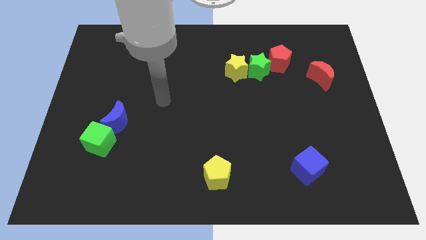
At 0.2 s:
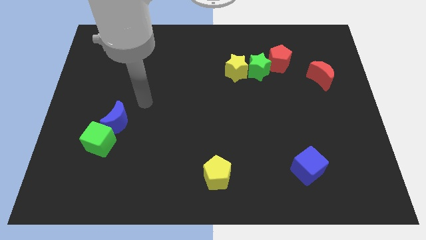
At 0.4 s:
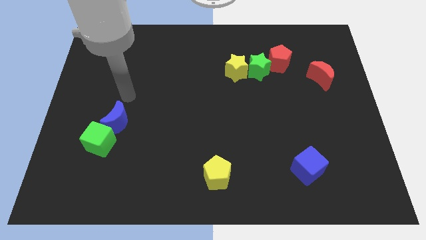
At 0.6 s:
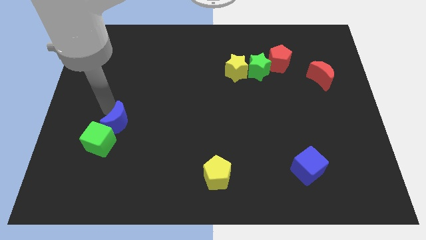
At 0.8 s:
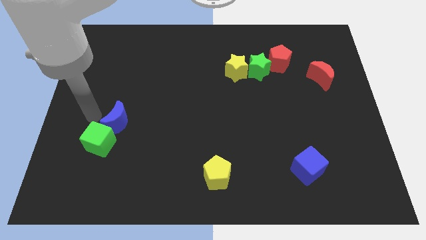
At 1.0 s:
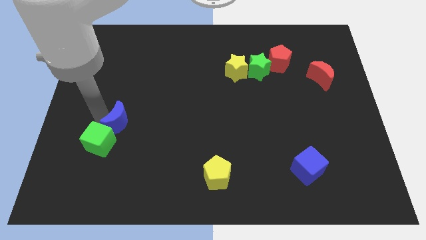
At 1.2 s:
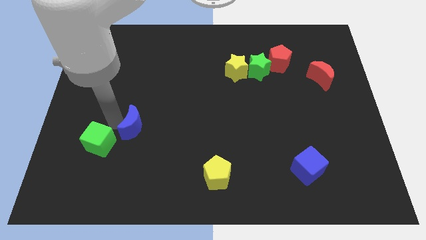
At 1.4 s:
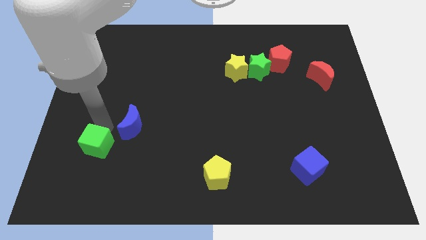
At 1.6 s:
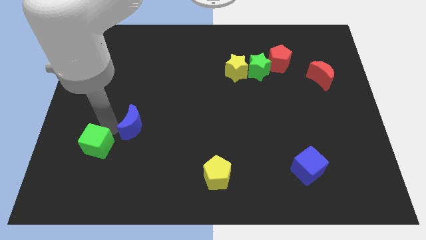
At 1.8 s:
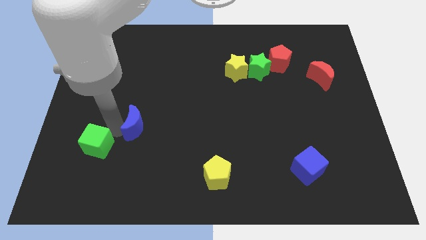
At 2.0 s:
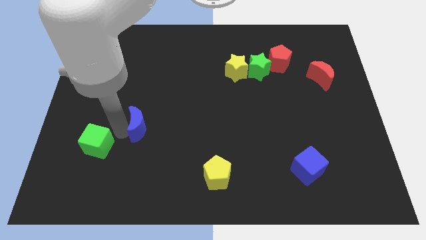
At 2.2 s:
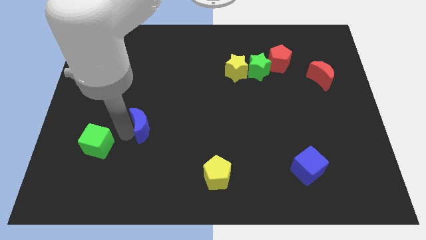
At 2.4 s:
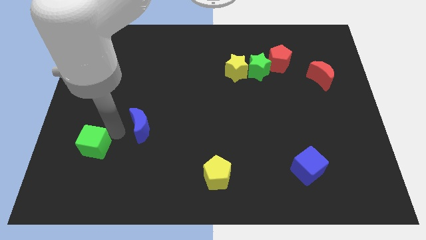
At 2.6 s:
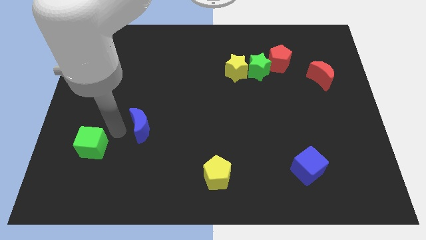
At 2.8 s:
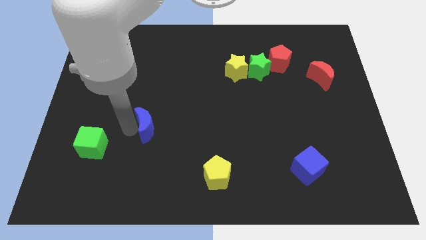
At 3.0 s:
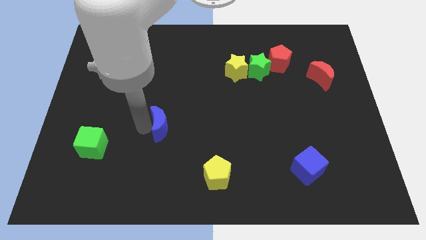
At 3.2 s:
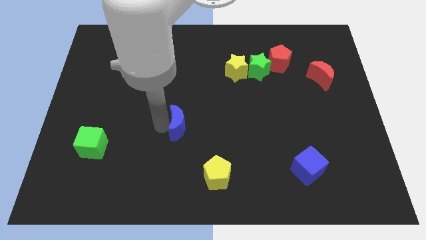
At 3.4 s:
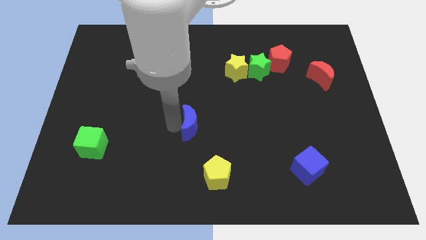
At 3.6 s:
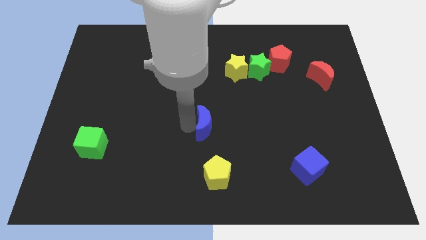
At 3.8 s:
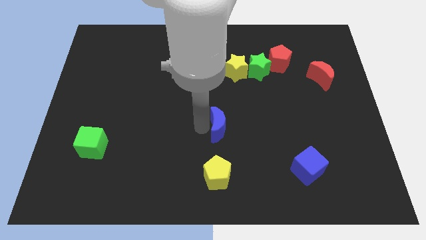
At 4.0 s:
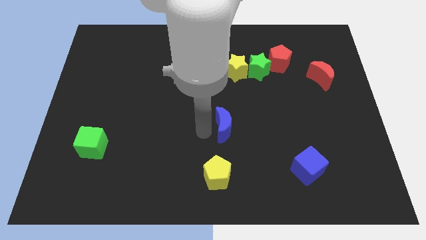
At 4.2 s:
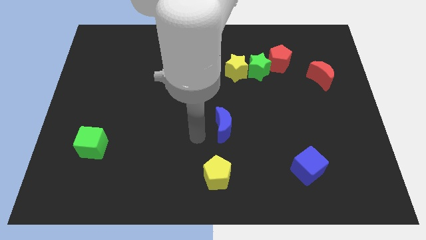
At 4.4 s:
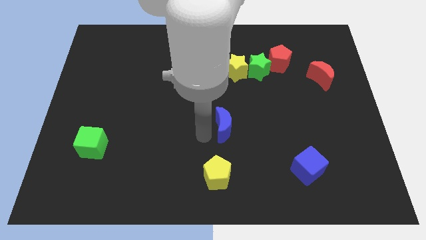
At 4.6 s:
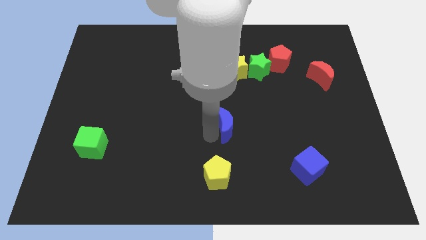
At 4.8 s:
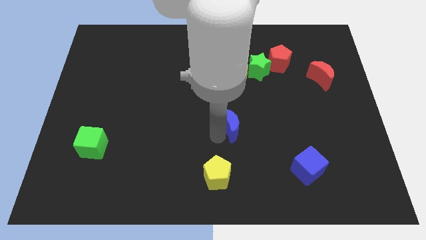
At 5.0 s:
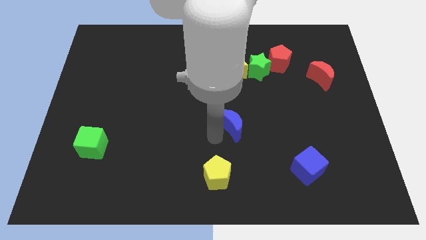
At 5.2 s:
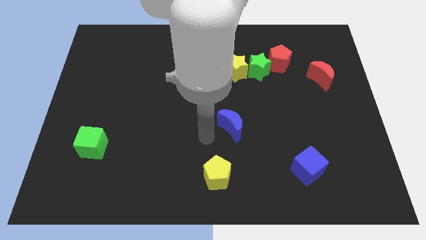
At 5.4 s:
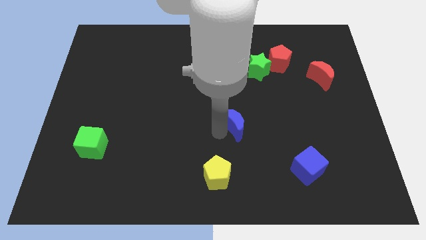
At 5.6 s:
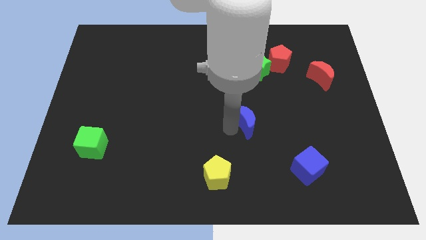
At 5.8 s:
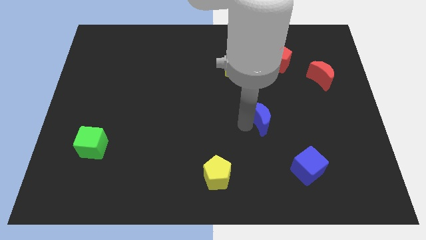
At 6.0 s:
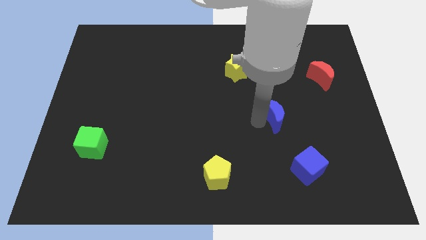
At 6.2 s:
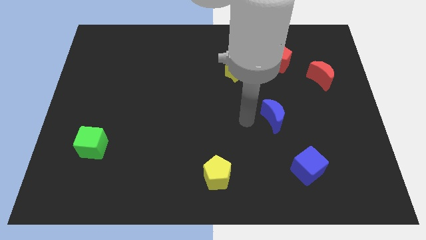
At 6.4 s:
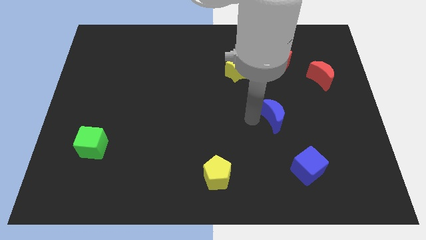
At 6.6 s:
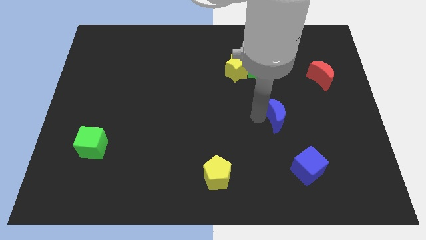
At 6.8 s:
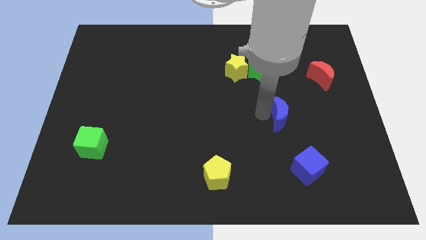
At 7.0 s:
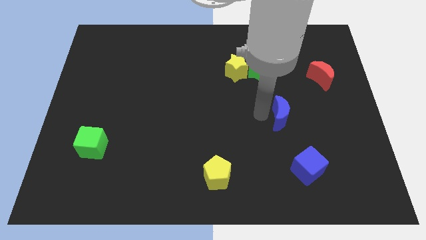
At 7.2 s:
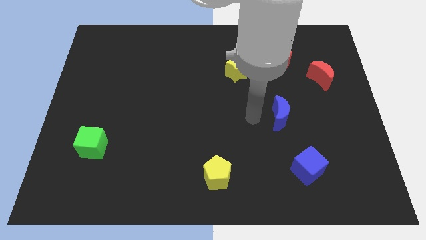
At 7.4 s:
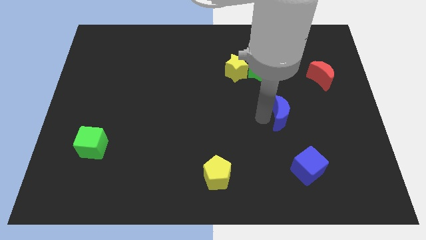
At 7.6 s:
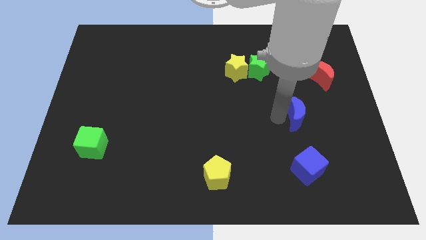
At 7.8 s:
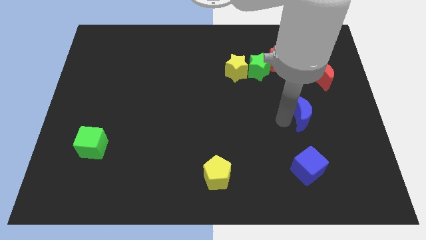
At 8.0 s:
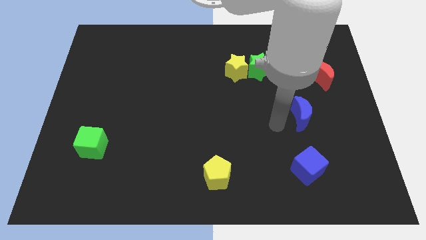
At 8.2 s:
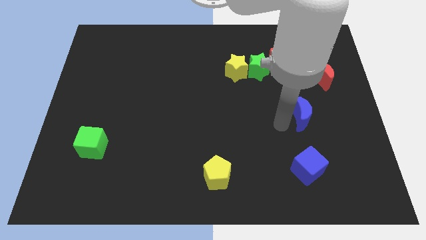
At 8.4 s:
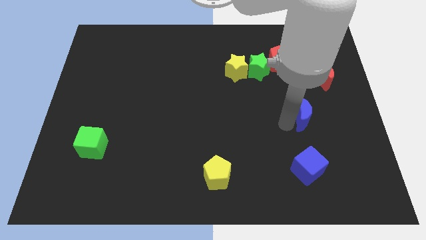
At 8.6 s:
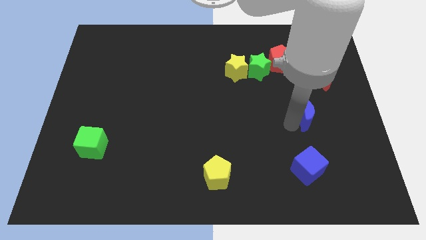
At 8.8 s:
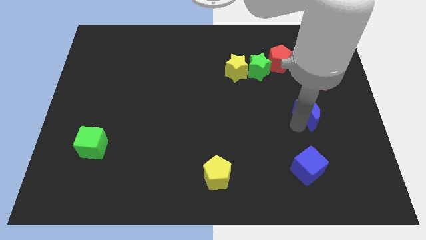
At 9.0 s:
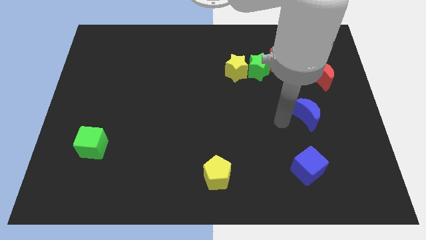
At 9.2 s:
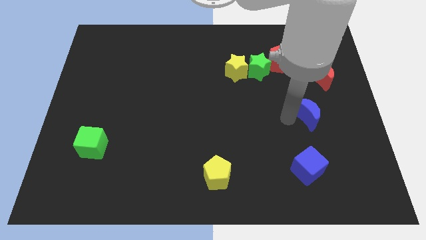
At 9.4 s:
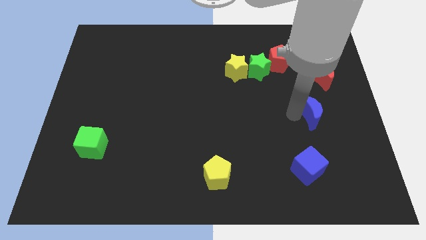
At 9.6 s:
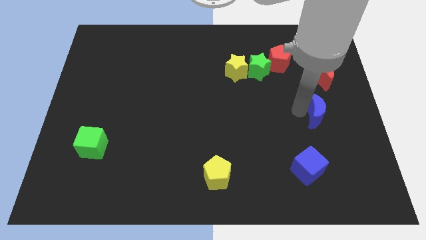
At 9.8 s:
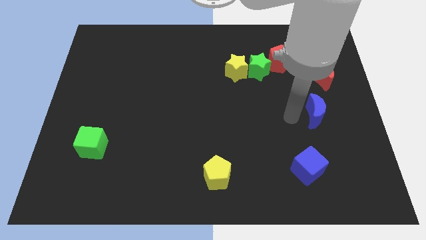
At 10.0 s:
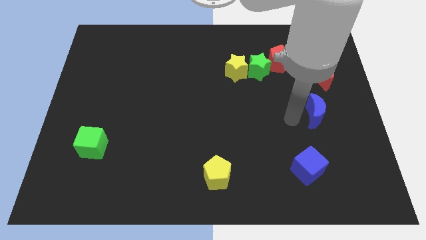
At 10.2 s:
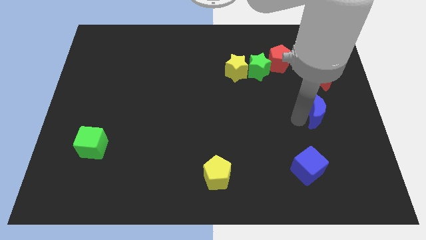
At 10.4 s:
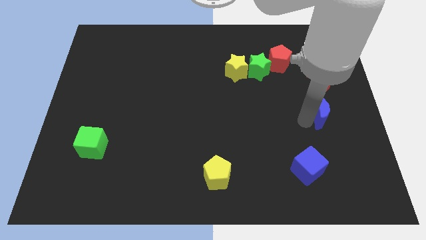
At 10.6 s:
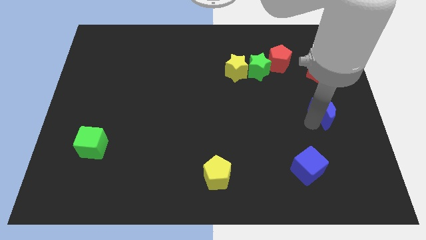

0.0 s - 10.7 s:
move the blue moon to the right side of the board

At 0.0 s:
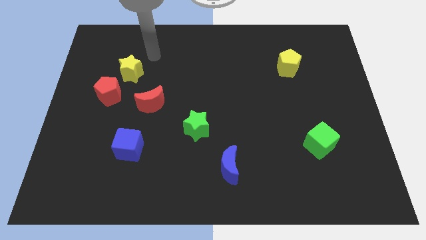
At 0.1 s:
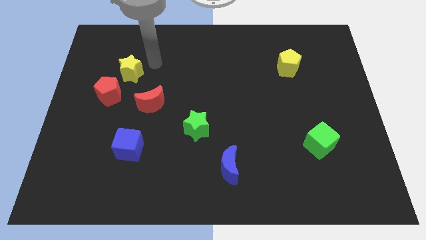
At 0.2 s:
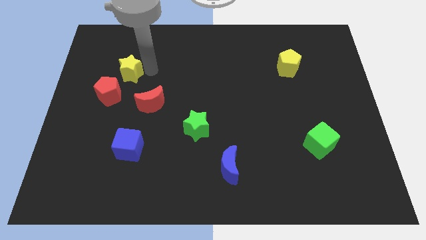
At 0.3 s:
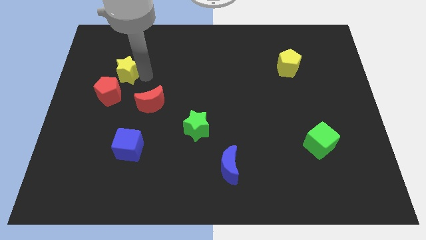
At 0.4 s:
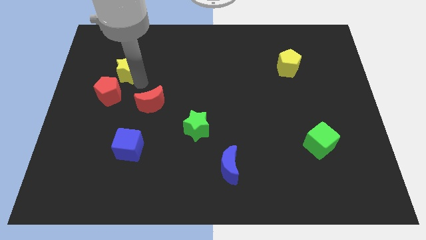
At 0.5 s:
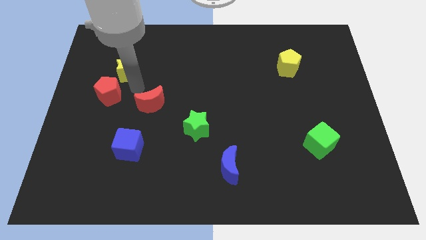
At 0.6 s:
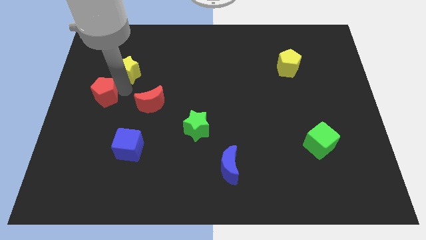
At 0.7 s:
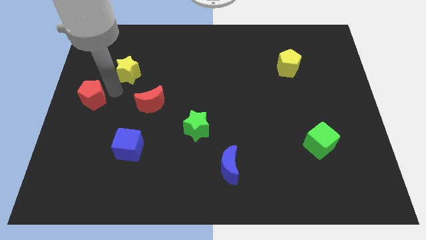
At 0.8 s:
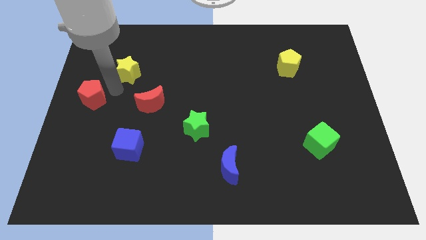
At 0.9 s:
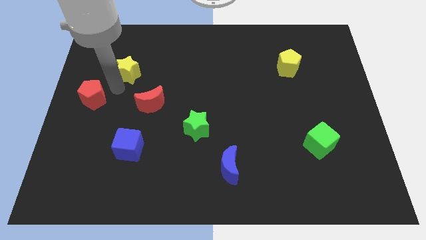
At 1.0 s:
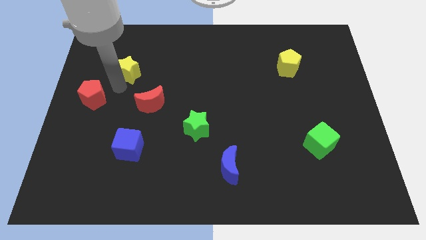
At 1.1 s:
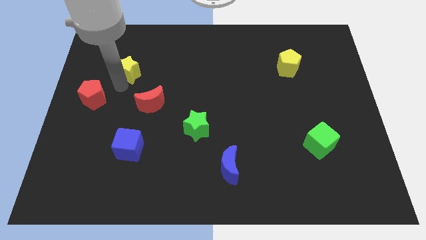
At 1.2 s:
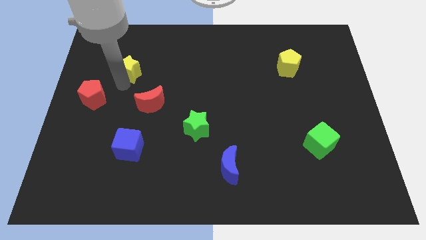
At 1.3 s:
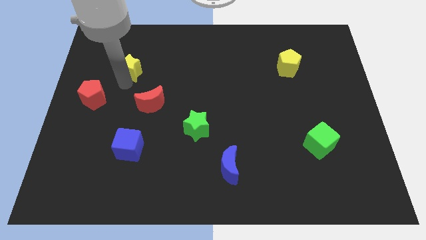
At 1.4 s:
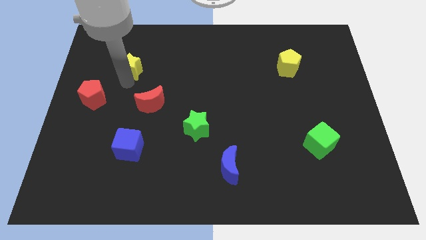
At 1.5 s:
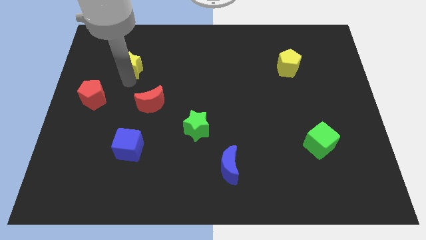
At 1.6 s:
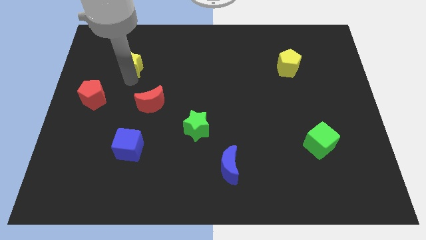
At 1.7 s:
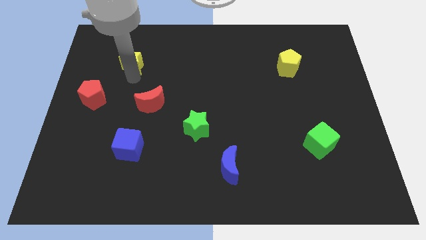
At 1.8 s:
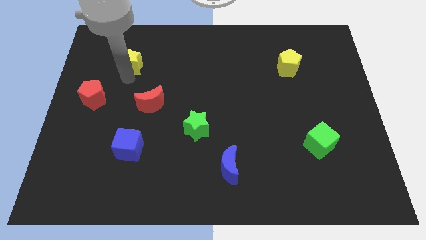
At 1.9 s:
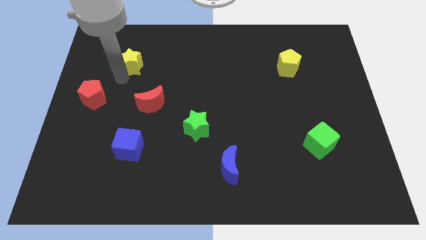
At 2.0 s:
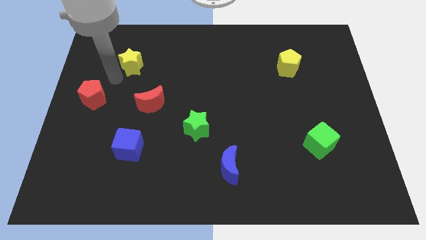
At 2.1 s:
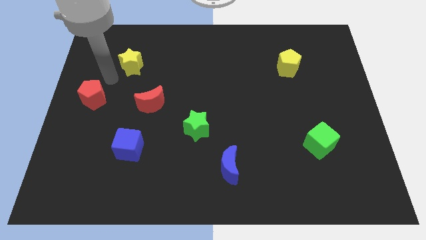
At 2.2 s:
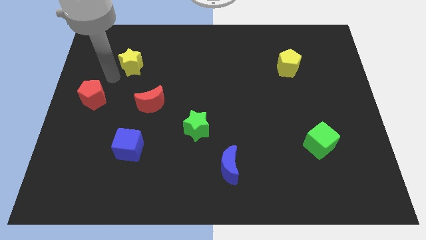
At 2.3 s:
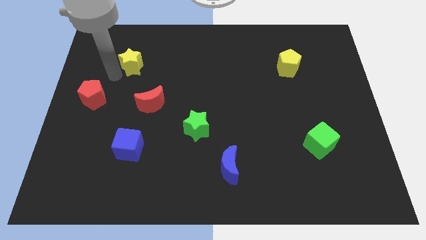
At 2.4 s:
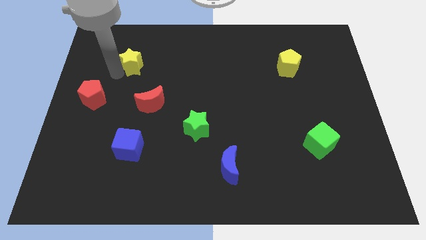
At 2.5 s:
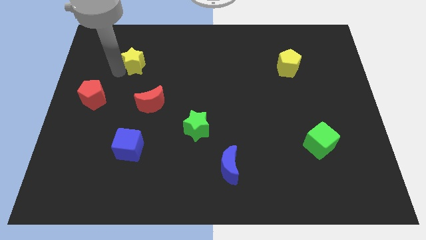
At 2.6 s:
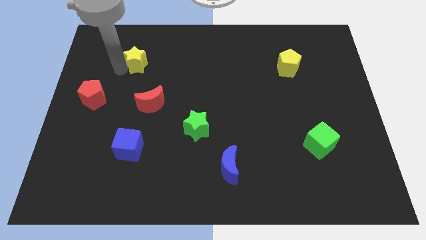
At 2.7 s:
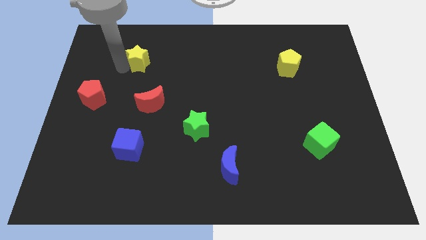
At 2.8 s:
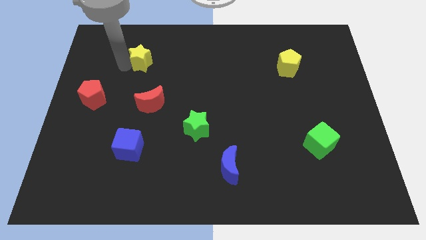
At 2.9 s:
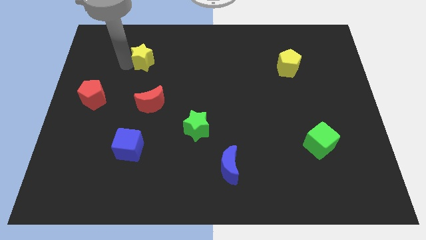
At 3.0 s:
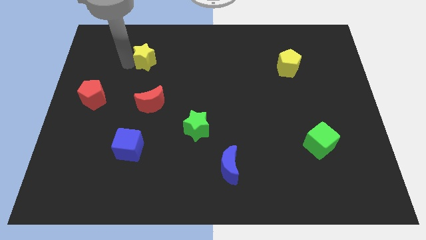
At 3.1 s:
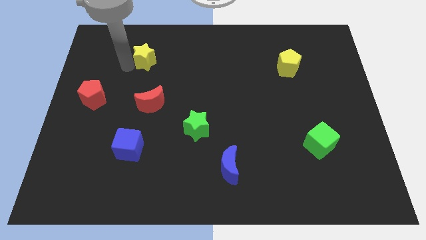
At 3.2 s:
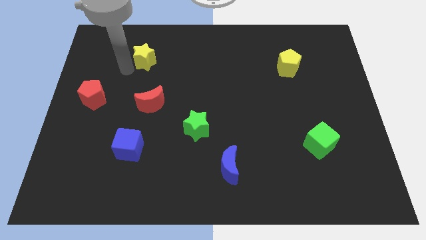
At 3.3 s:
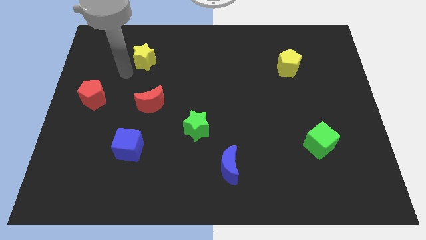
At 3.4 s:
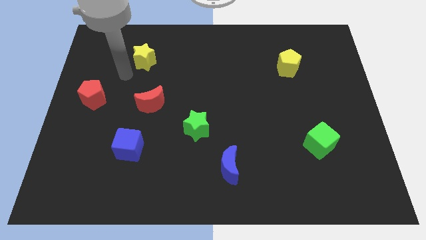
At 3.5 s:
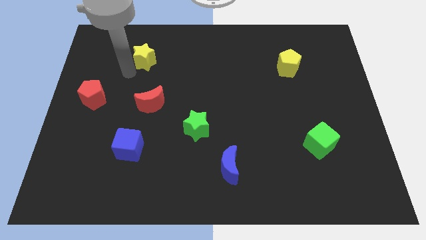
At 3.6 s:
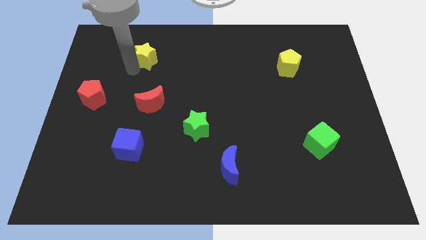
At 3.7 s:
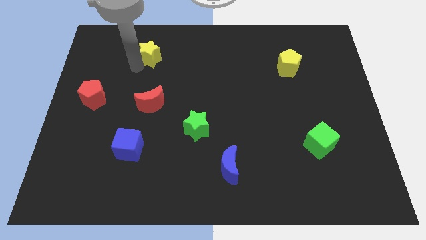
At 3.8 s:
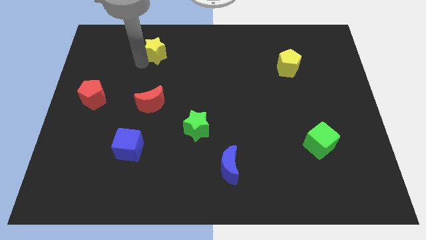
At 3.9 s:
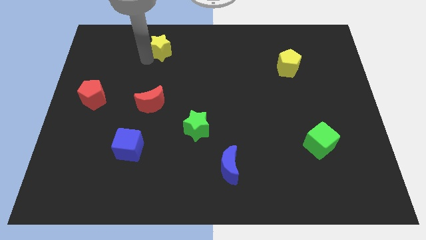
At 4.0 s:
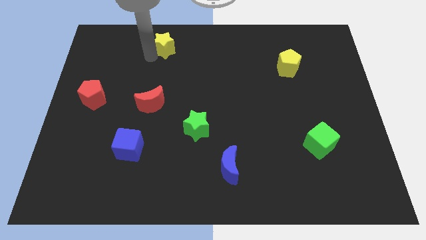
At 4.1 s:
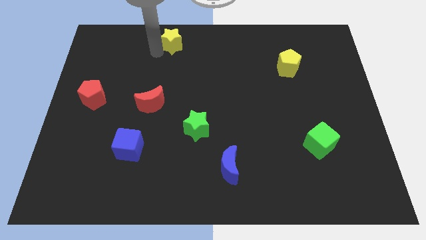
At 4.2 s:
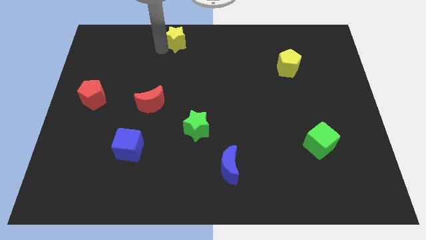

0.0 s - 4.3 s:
move the yellow star to the top
